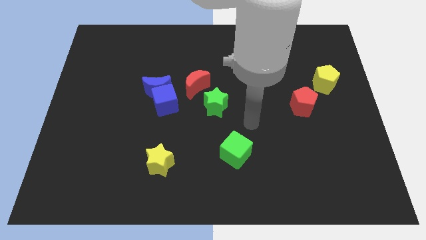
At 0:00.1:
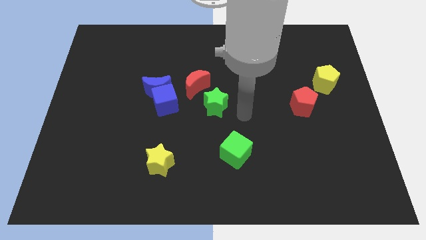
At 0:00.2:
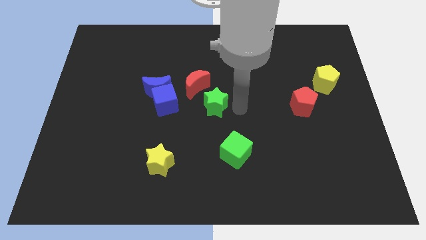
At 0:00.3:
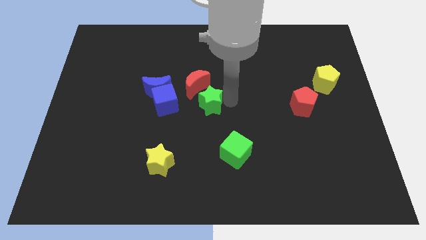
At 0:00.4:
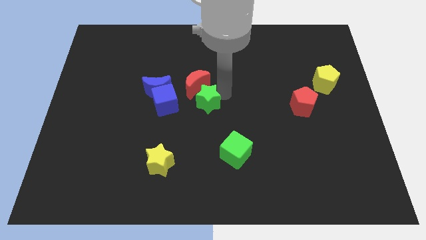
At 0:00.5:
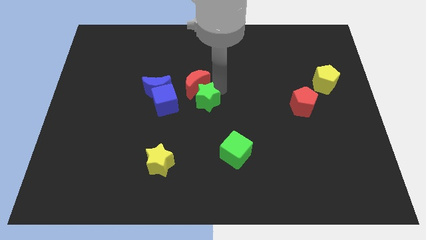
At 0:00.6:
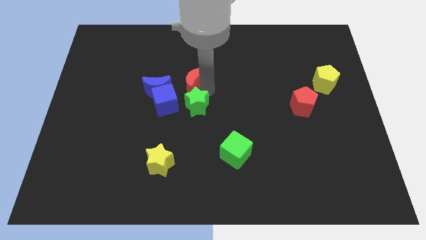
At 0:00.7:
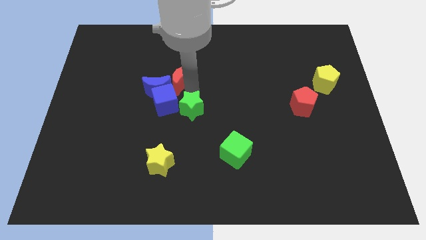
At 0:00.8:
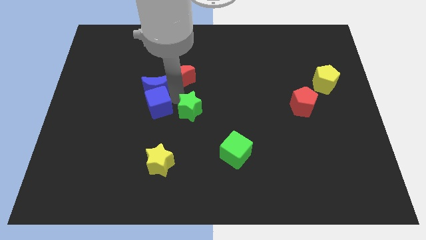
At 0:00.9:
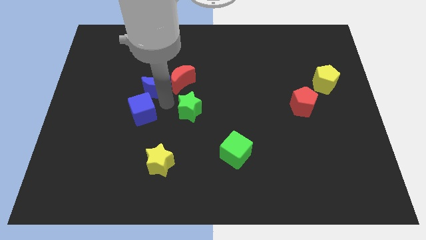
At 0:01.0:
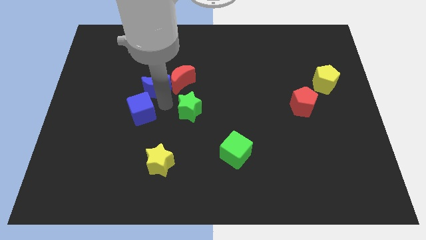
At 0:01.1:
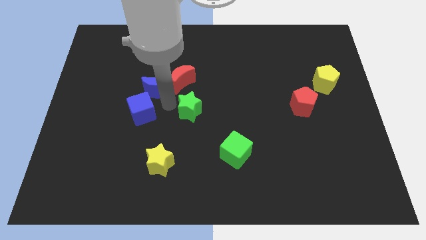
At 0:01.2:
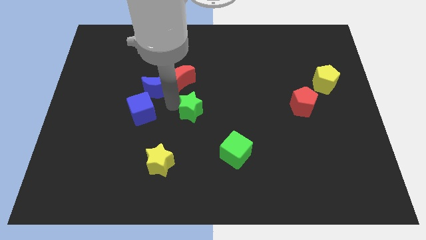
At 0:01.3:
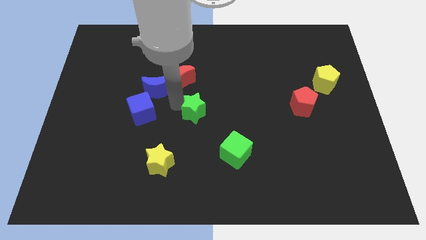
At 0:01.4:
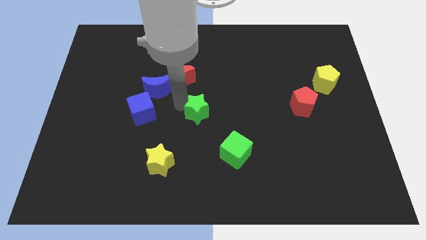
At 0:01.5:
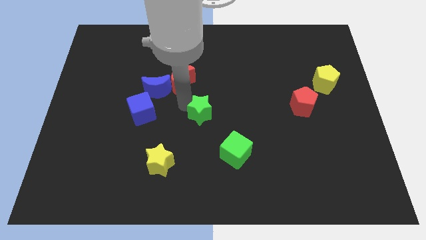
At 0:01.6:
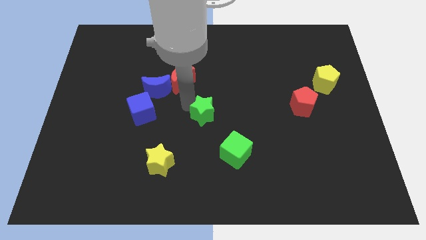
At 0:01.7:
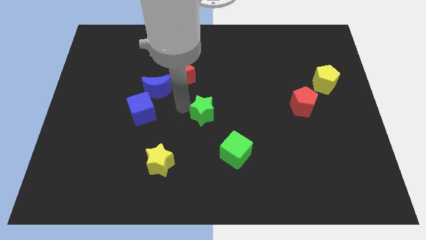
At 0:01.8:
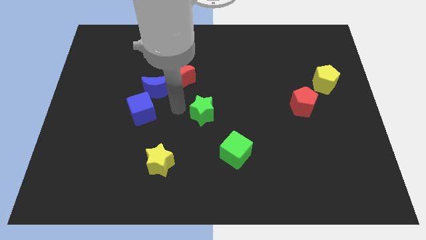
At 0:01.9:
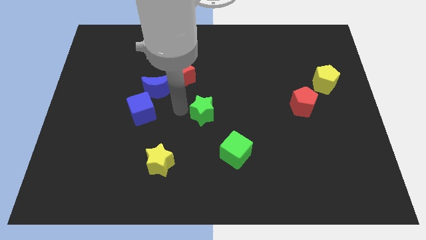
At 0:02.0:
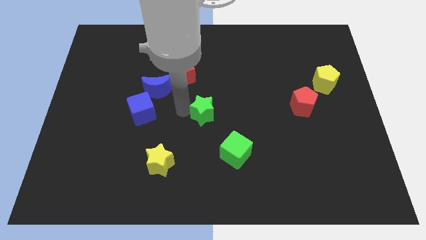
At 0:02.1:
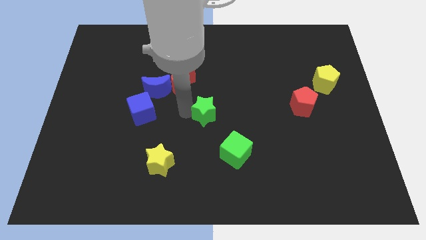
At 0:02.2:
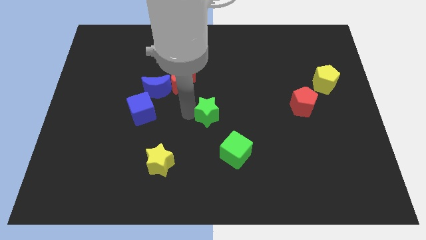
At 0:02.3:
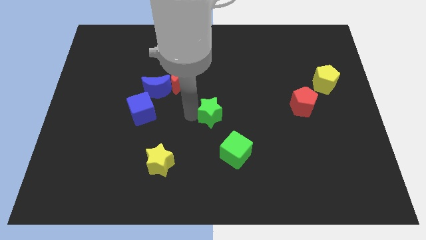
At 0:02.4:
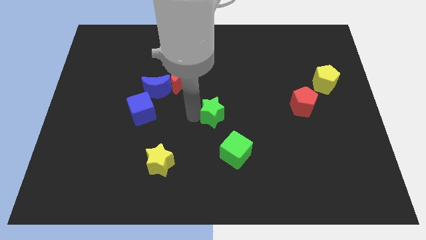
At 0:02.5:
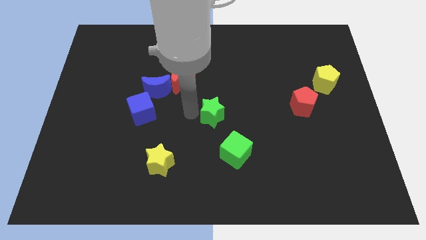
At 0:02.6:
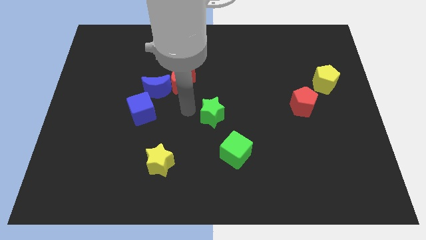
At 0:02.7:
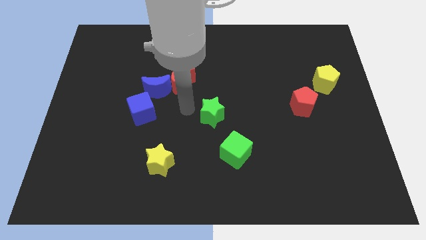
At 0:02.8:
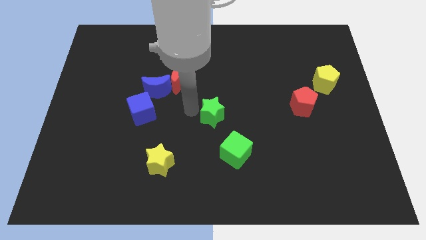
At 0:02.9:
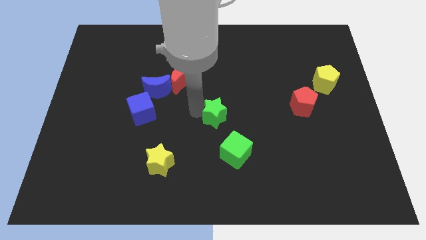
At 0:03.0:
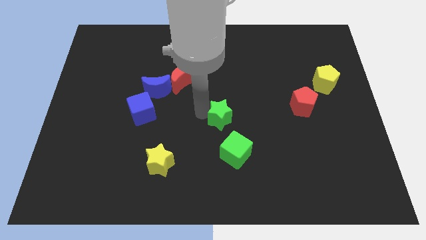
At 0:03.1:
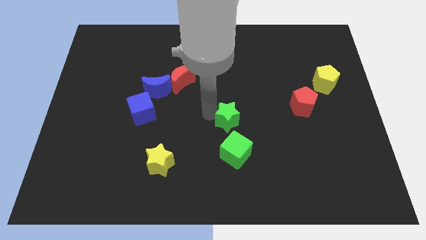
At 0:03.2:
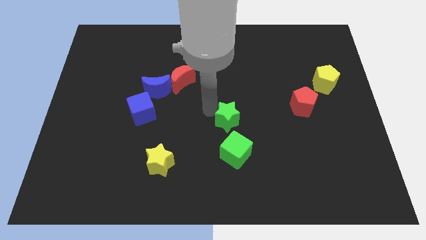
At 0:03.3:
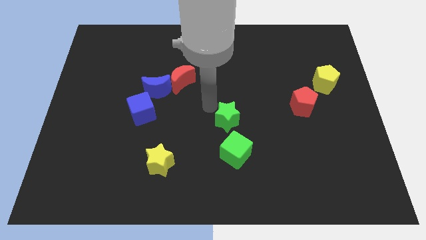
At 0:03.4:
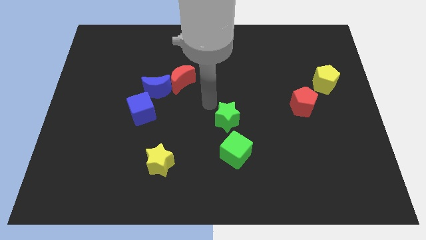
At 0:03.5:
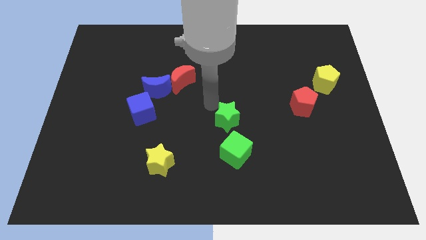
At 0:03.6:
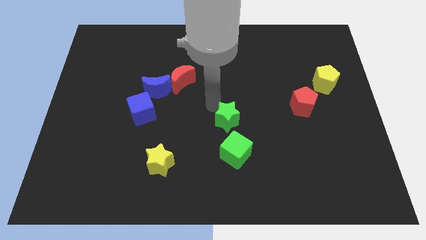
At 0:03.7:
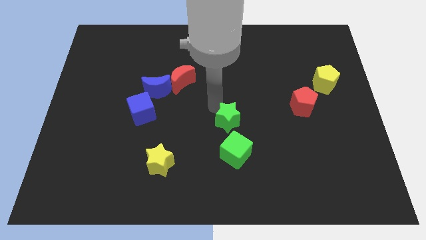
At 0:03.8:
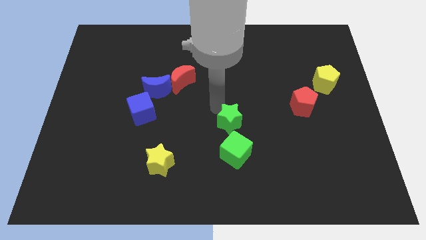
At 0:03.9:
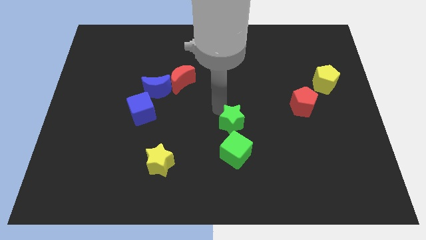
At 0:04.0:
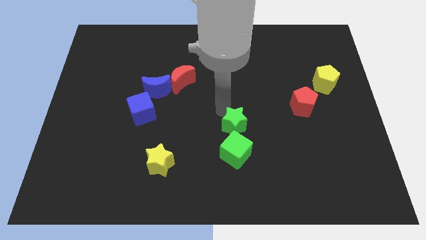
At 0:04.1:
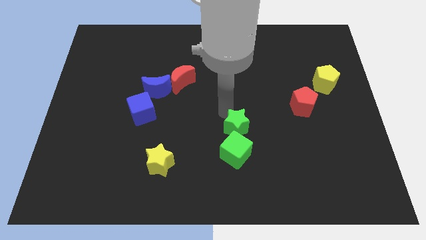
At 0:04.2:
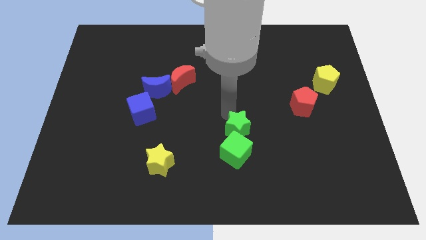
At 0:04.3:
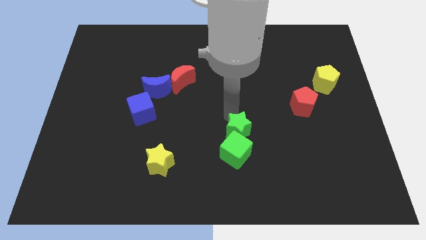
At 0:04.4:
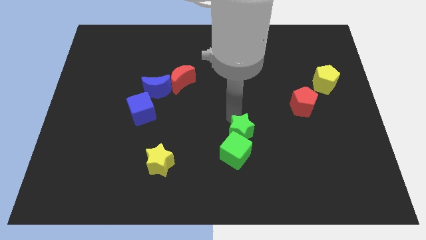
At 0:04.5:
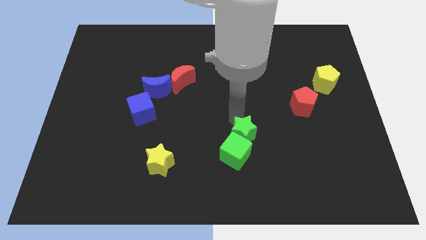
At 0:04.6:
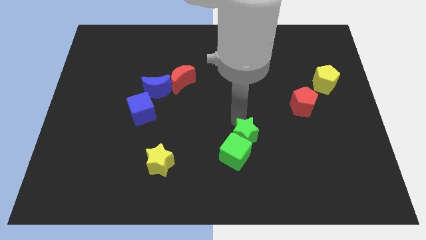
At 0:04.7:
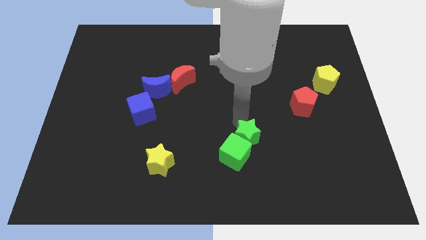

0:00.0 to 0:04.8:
move the green star to the right of the green cube

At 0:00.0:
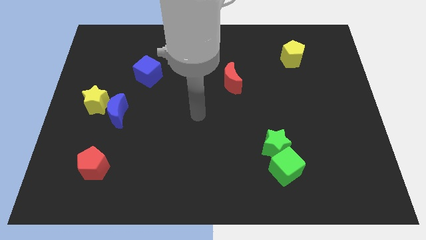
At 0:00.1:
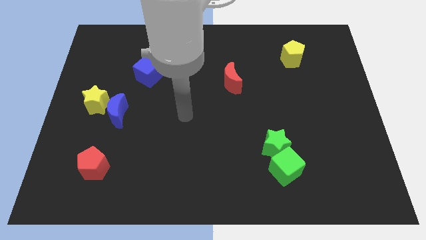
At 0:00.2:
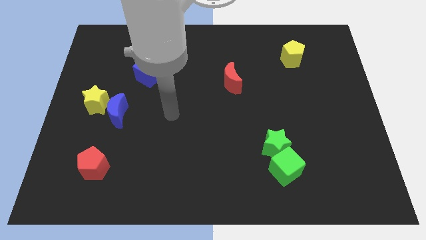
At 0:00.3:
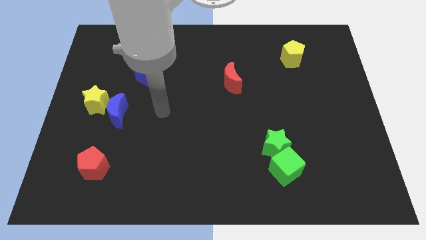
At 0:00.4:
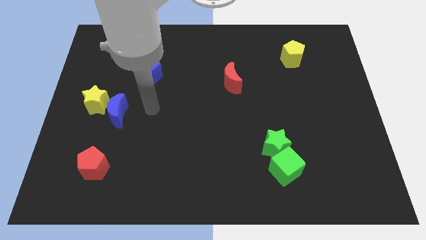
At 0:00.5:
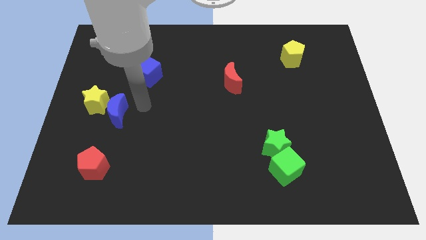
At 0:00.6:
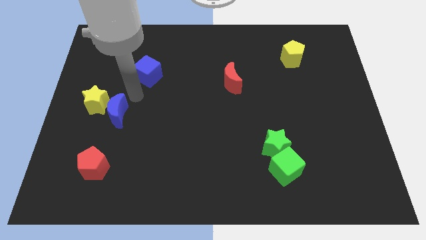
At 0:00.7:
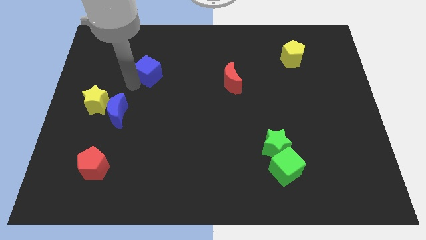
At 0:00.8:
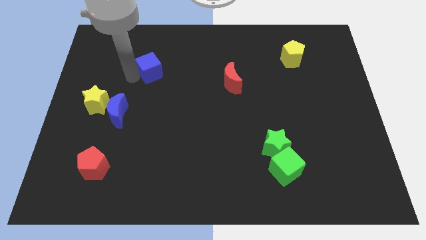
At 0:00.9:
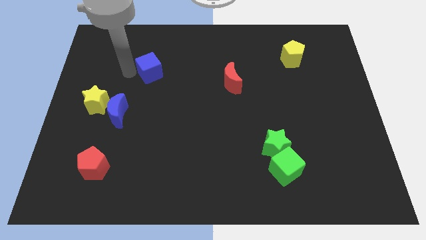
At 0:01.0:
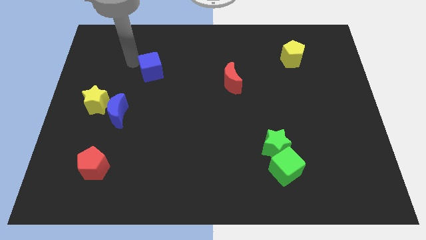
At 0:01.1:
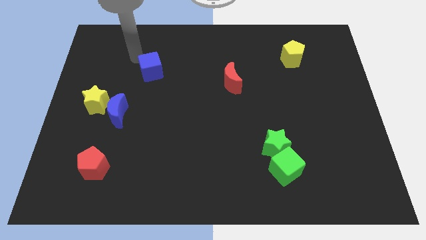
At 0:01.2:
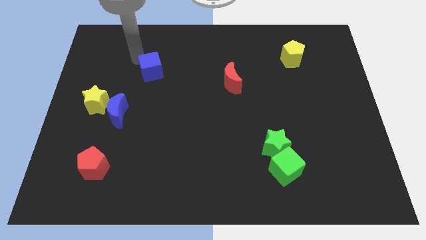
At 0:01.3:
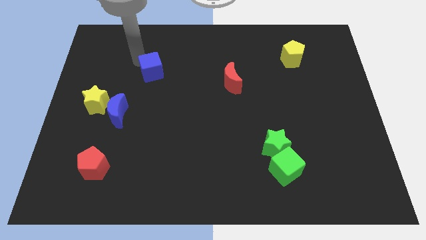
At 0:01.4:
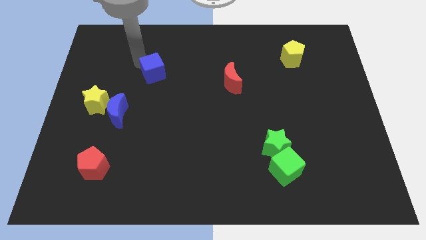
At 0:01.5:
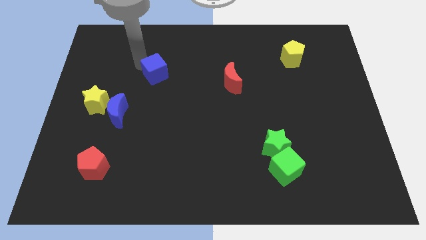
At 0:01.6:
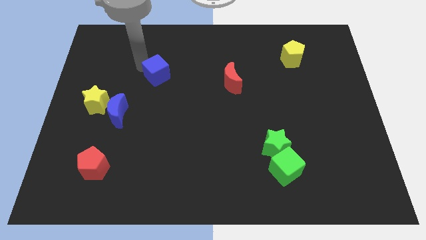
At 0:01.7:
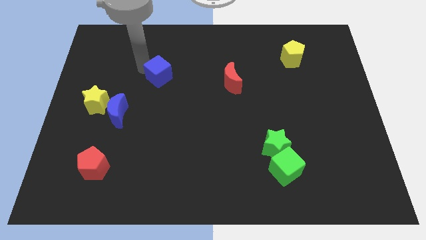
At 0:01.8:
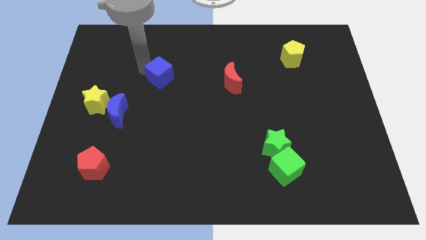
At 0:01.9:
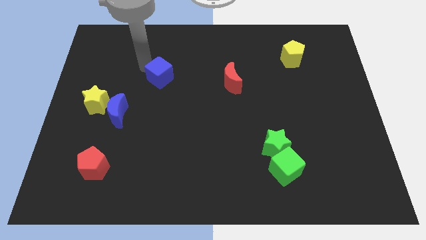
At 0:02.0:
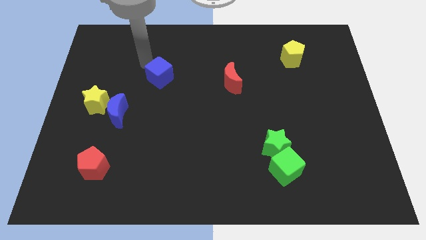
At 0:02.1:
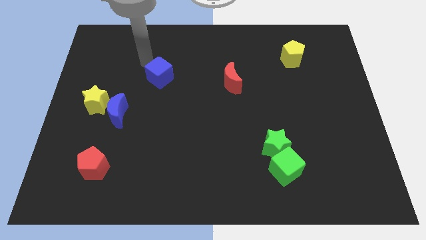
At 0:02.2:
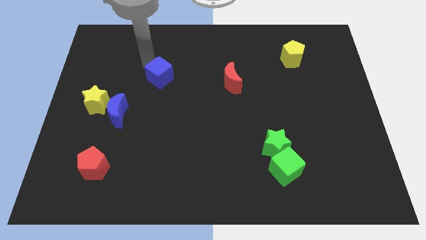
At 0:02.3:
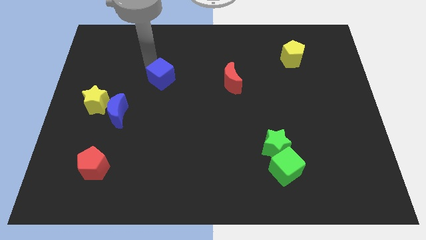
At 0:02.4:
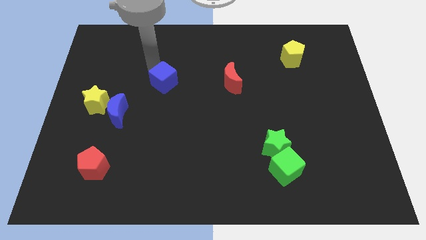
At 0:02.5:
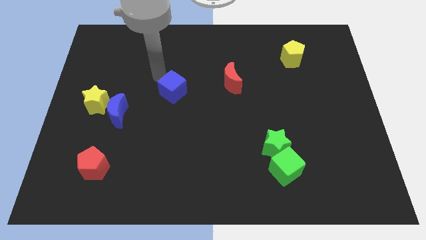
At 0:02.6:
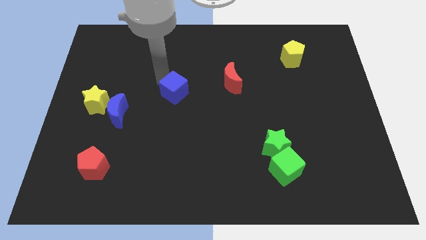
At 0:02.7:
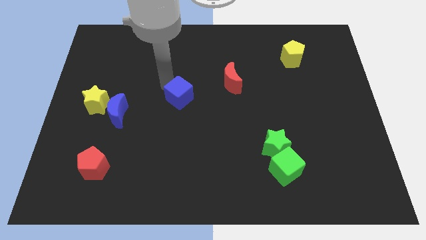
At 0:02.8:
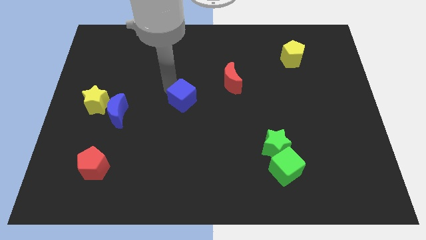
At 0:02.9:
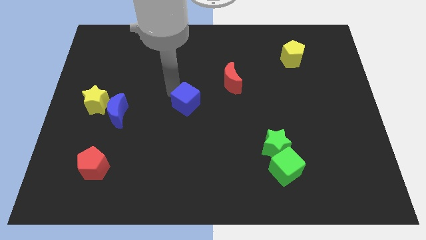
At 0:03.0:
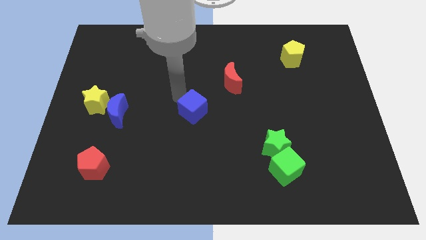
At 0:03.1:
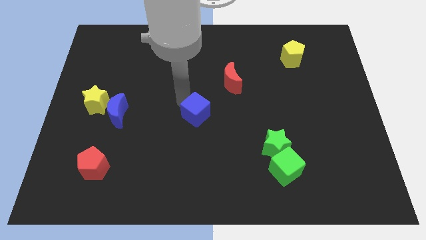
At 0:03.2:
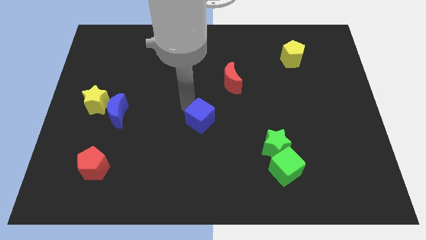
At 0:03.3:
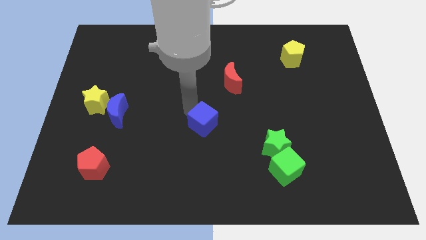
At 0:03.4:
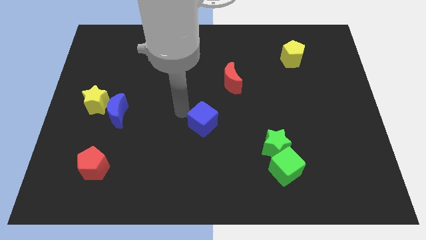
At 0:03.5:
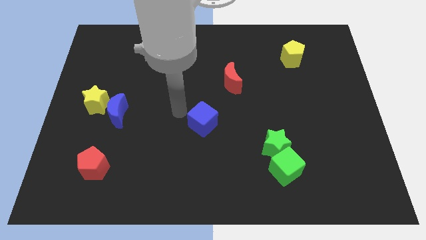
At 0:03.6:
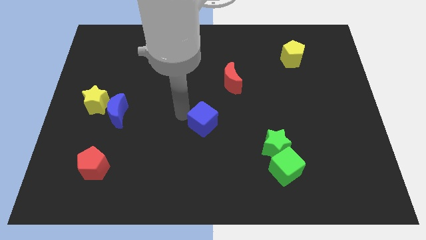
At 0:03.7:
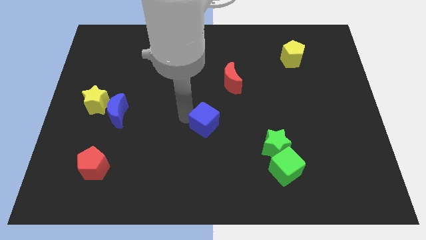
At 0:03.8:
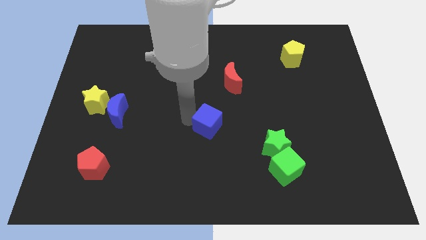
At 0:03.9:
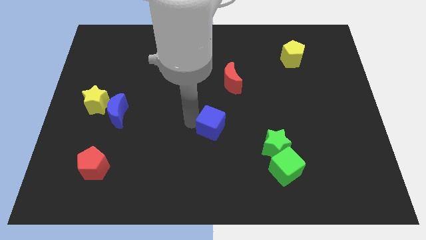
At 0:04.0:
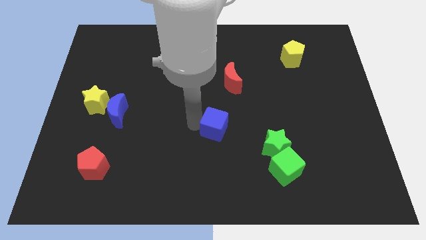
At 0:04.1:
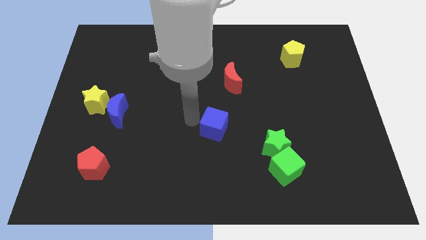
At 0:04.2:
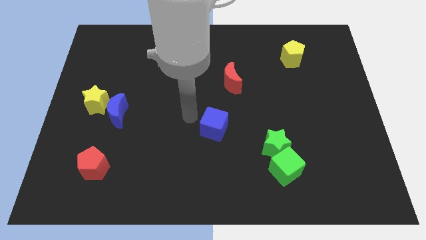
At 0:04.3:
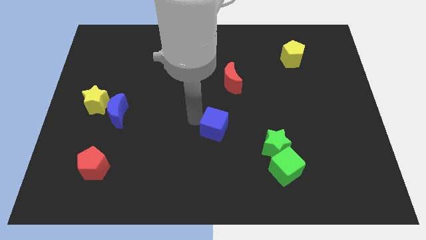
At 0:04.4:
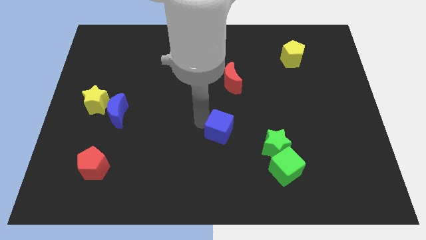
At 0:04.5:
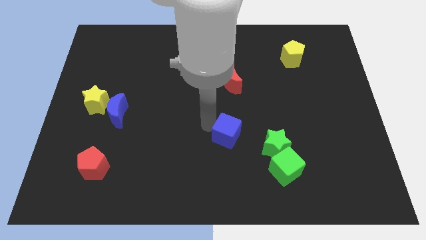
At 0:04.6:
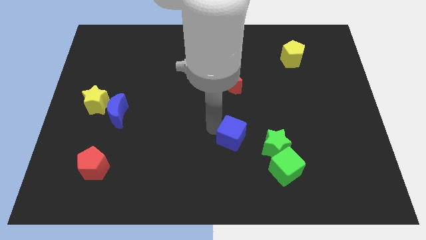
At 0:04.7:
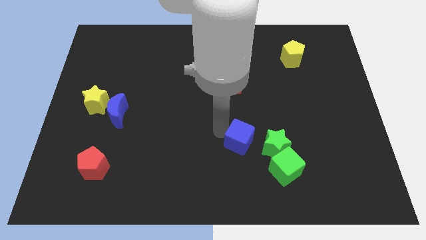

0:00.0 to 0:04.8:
put the blue cube diagonally up and to the left of the green cube
